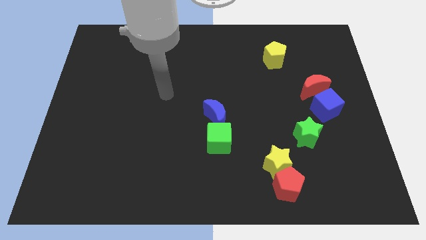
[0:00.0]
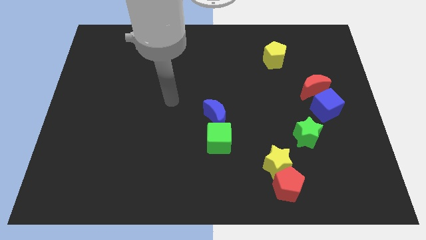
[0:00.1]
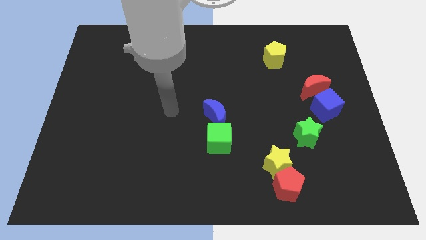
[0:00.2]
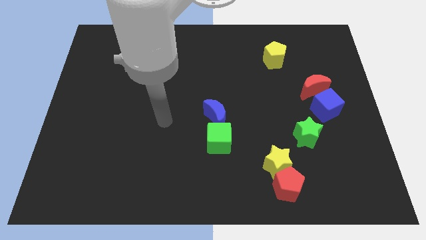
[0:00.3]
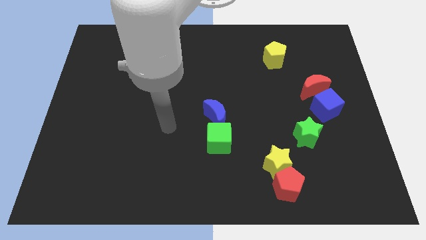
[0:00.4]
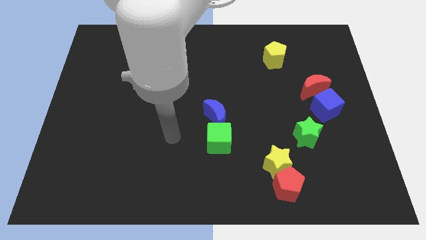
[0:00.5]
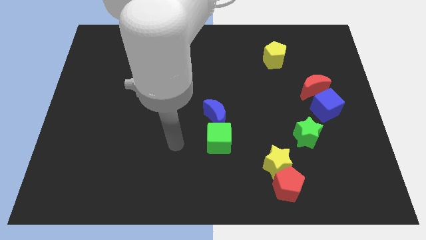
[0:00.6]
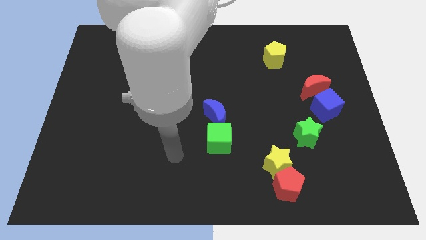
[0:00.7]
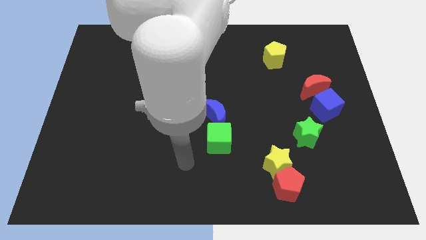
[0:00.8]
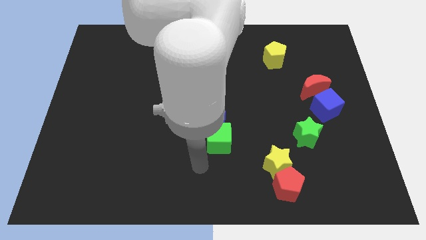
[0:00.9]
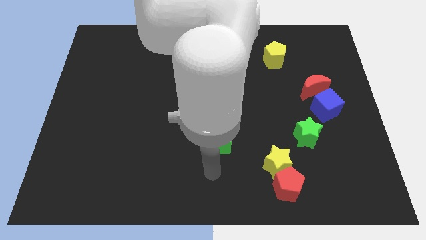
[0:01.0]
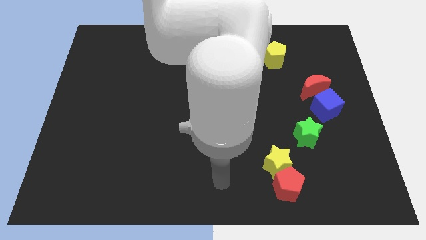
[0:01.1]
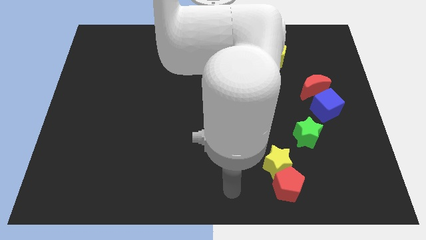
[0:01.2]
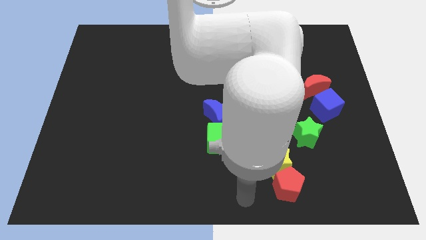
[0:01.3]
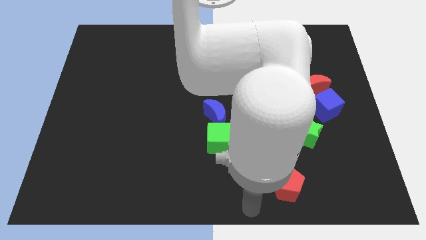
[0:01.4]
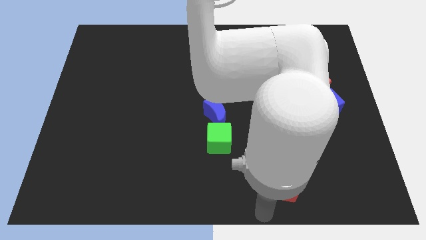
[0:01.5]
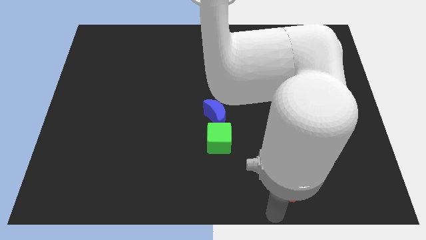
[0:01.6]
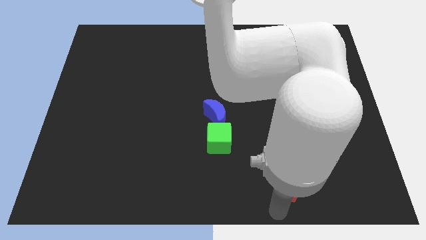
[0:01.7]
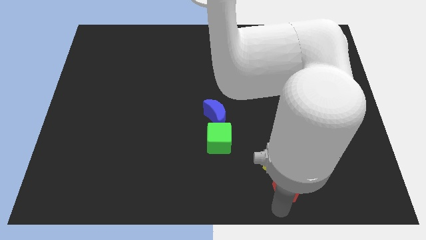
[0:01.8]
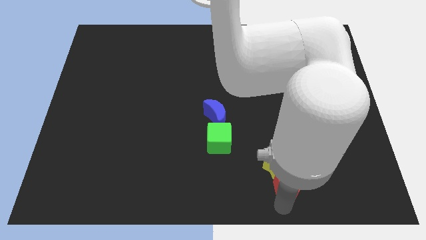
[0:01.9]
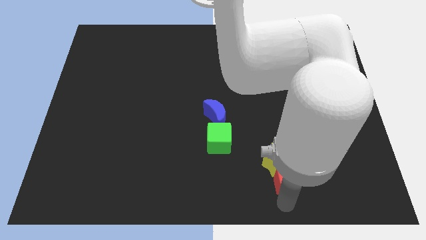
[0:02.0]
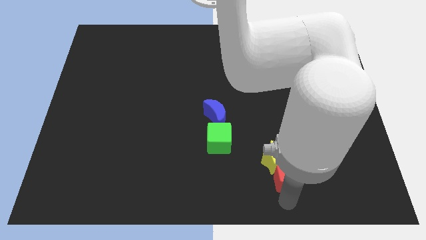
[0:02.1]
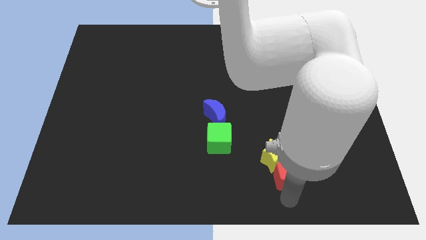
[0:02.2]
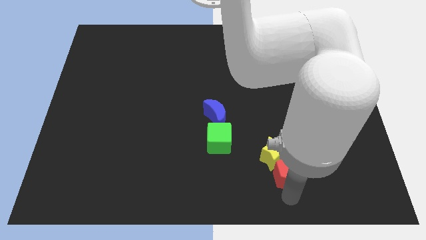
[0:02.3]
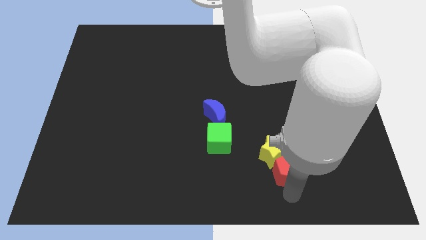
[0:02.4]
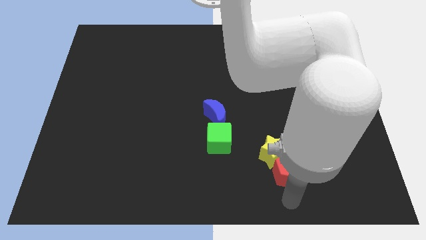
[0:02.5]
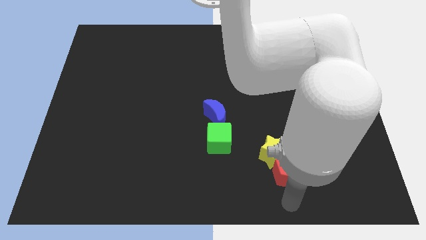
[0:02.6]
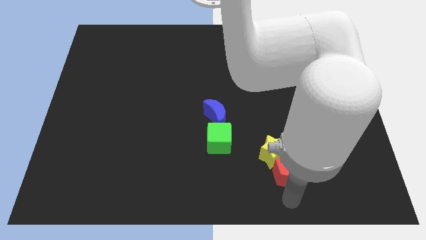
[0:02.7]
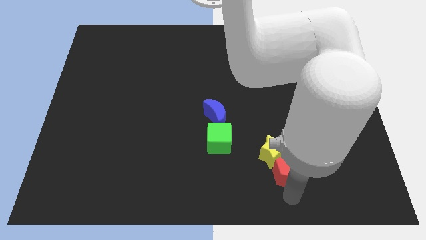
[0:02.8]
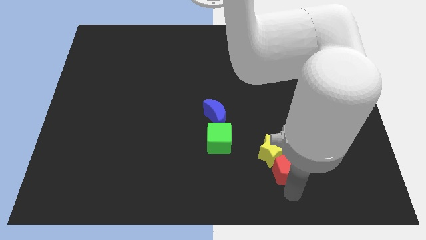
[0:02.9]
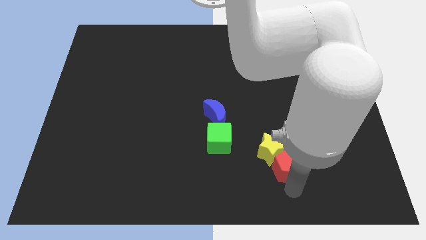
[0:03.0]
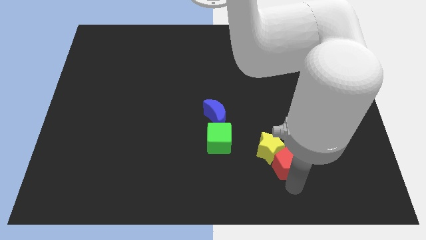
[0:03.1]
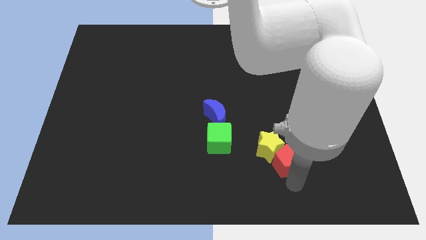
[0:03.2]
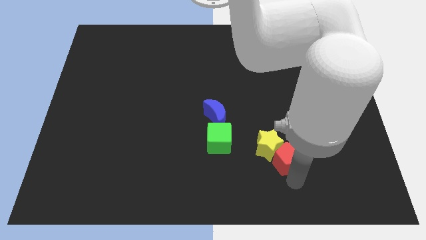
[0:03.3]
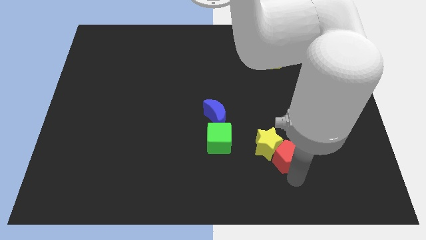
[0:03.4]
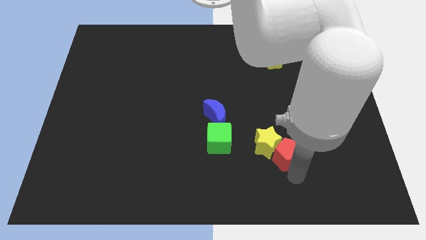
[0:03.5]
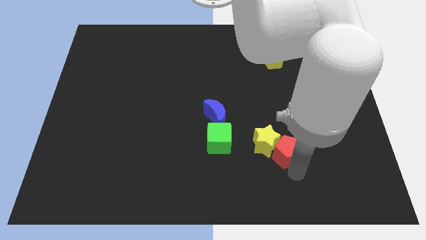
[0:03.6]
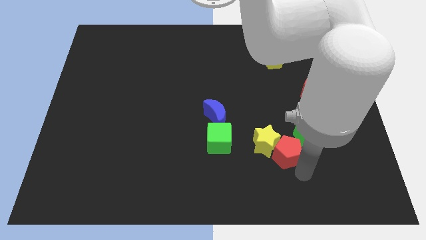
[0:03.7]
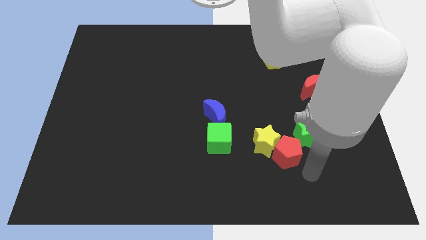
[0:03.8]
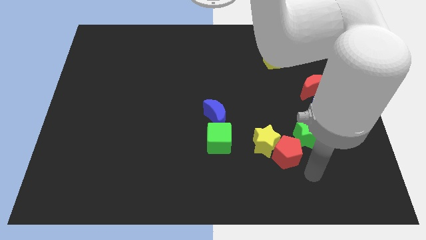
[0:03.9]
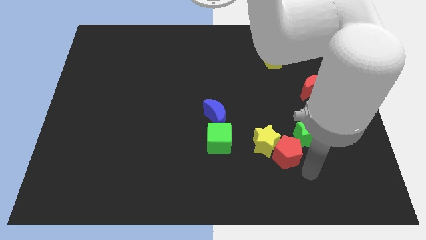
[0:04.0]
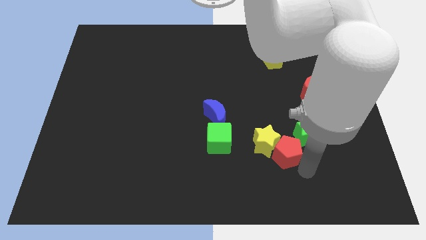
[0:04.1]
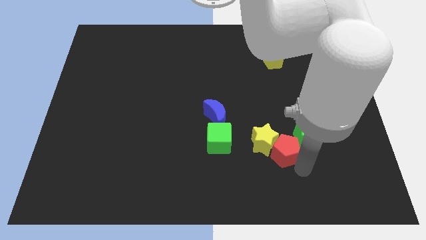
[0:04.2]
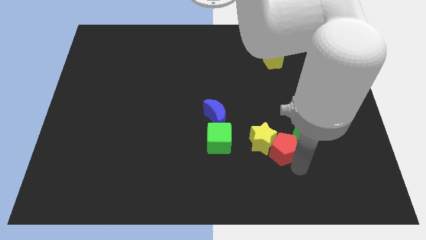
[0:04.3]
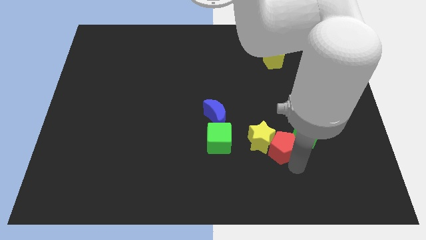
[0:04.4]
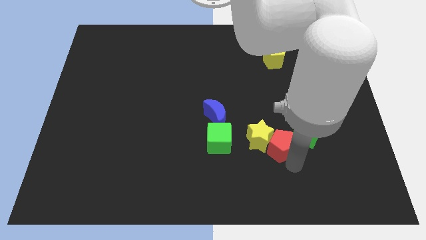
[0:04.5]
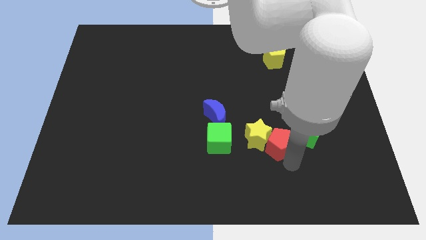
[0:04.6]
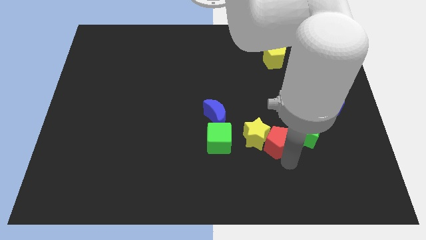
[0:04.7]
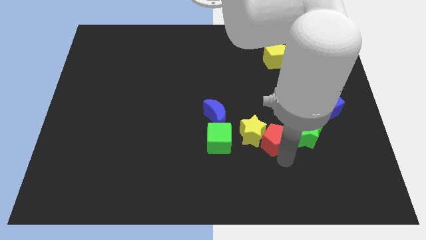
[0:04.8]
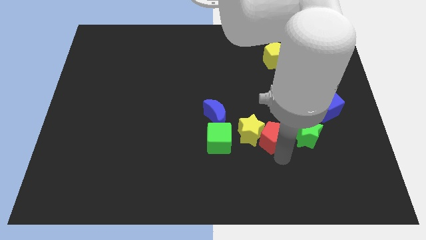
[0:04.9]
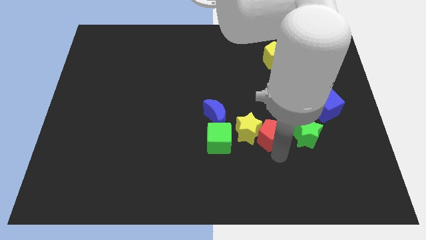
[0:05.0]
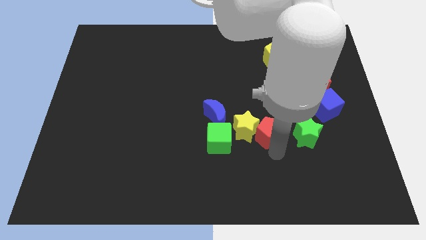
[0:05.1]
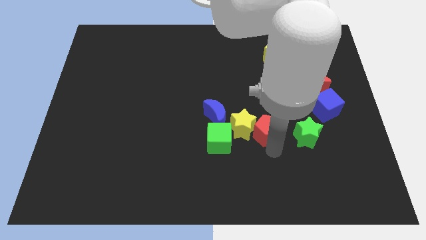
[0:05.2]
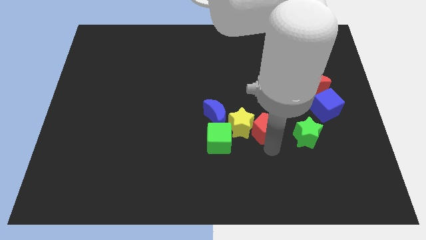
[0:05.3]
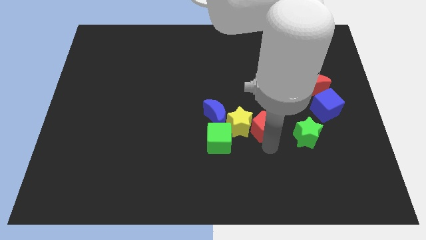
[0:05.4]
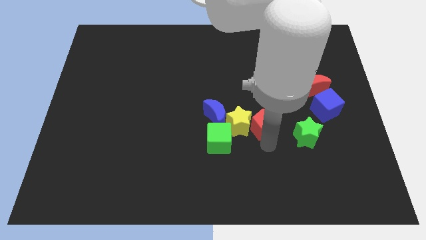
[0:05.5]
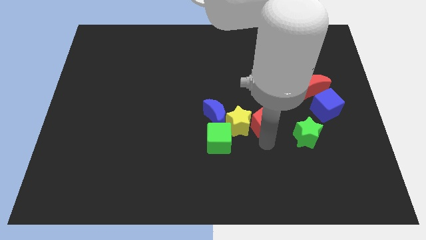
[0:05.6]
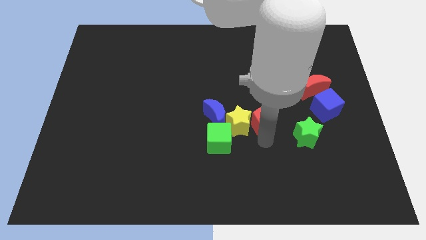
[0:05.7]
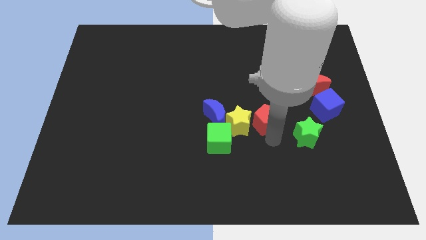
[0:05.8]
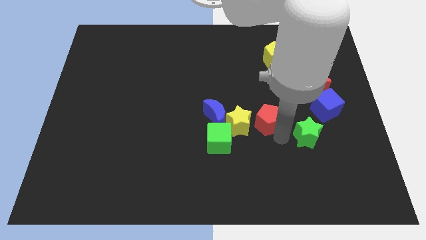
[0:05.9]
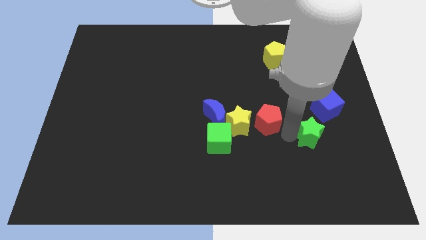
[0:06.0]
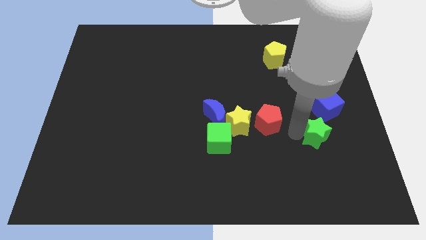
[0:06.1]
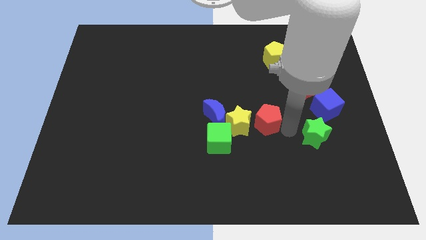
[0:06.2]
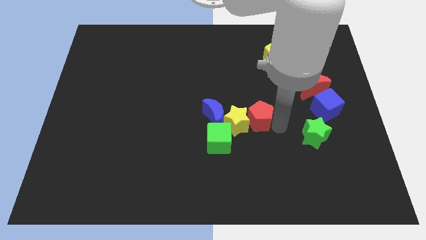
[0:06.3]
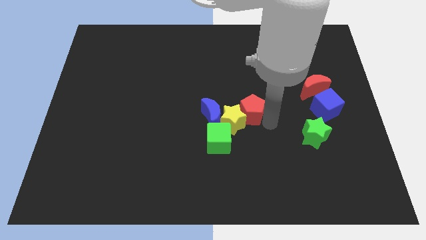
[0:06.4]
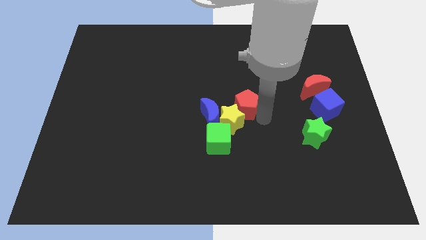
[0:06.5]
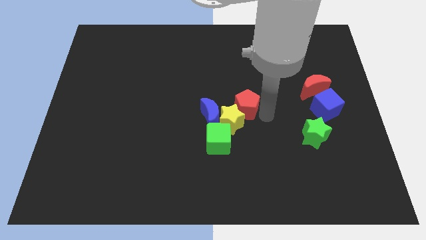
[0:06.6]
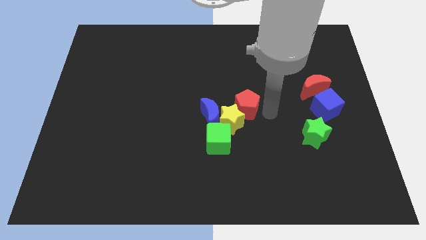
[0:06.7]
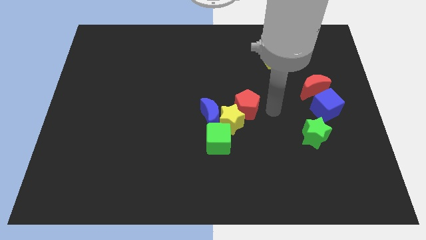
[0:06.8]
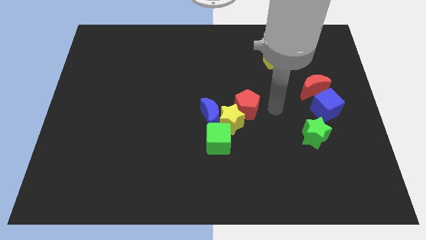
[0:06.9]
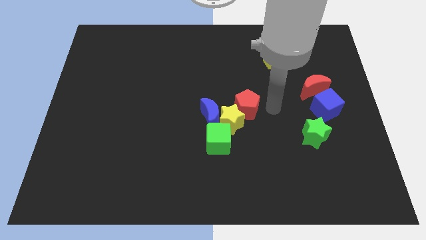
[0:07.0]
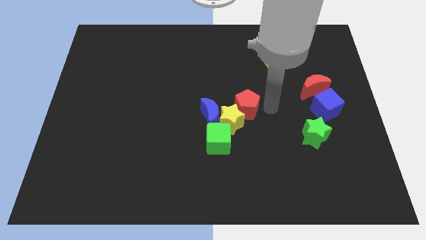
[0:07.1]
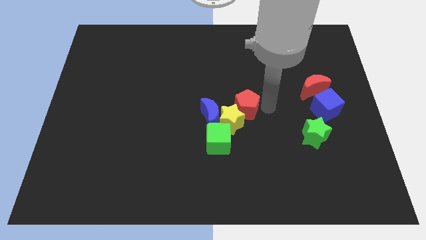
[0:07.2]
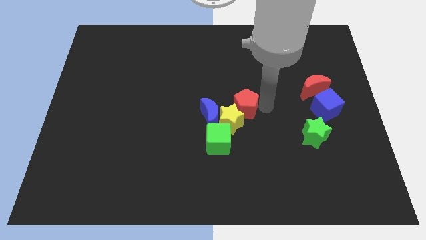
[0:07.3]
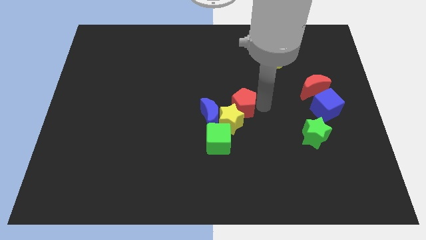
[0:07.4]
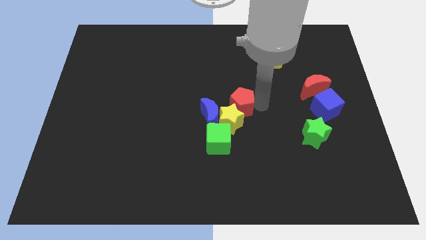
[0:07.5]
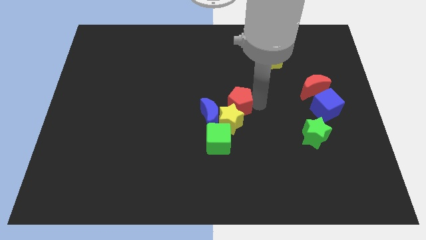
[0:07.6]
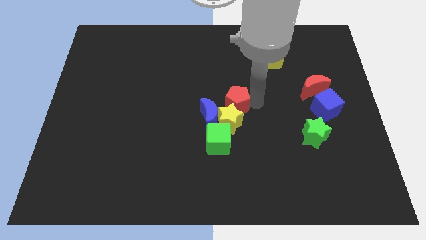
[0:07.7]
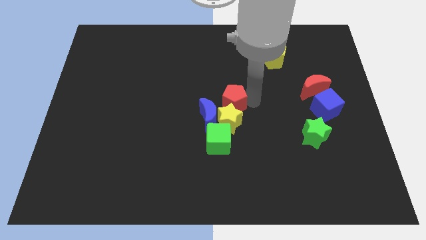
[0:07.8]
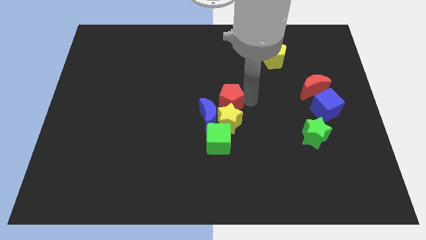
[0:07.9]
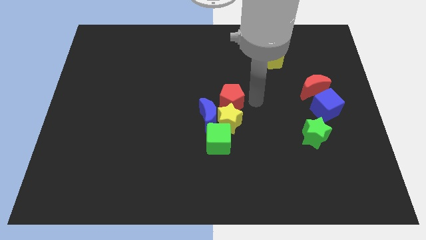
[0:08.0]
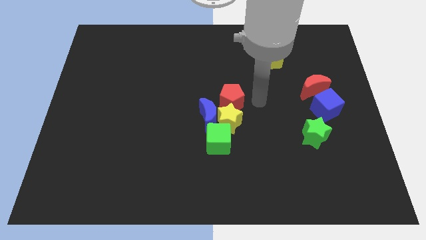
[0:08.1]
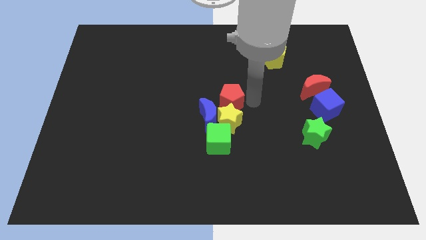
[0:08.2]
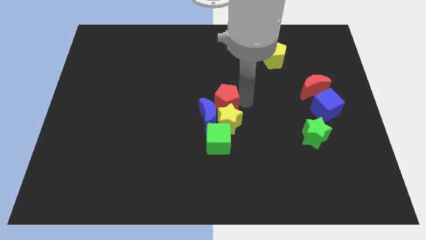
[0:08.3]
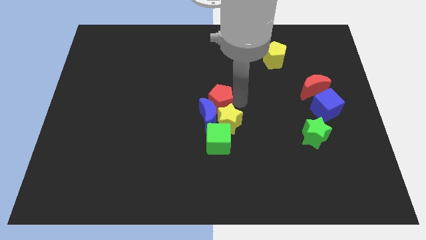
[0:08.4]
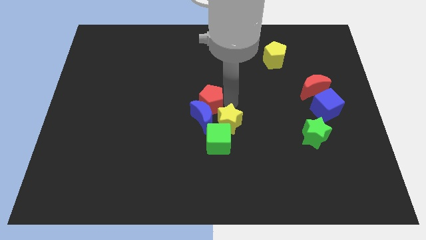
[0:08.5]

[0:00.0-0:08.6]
put the red pentagon to the top left side of the blue moon
